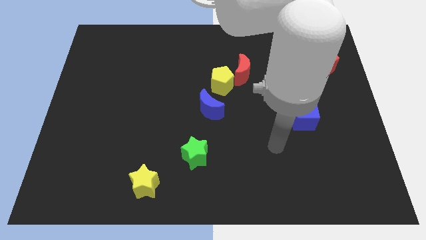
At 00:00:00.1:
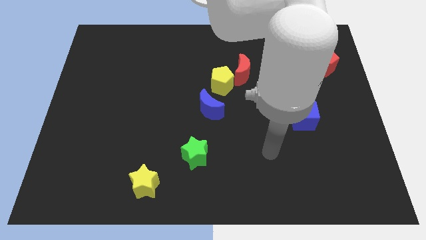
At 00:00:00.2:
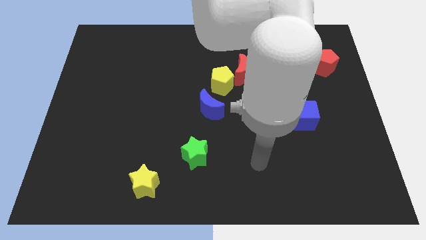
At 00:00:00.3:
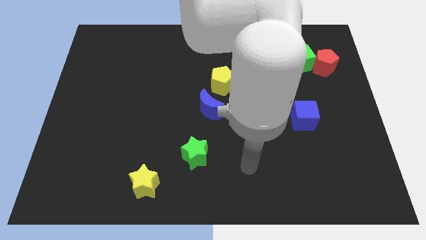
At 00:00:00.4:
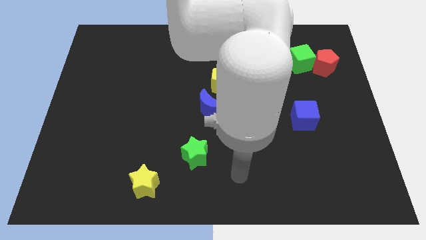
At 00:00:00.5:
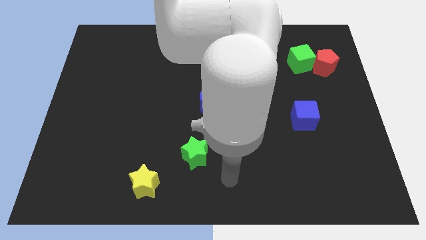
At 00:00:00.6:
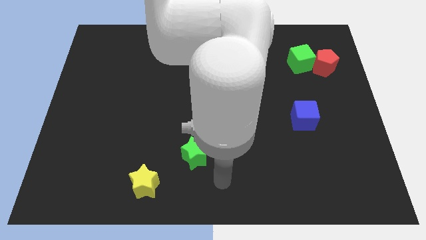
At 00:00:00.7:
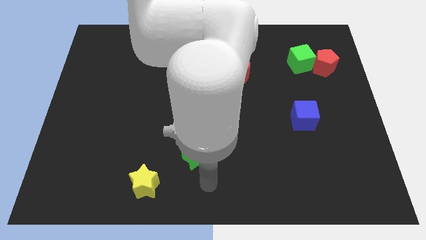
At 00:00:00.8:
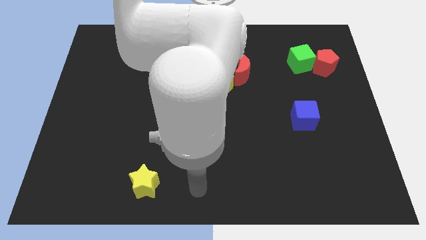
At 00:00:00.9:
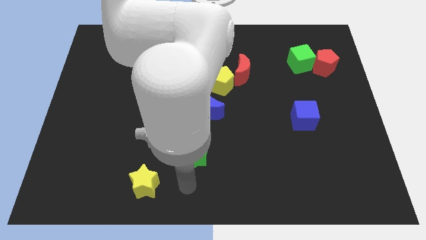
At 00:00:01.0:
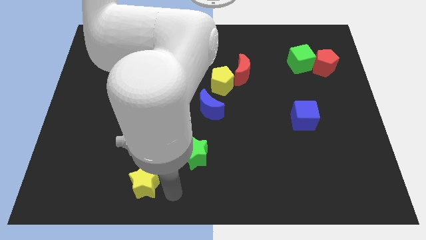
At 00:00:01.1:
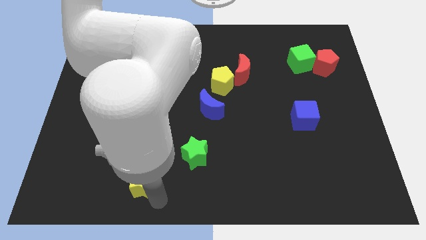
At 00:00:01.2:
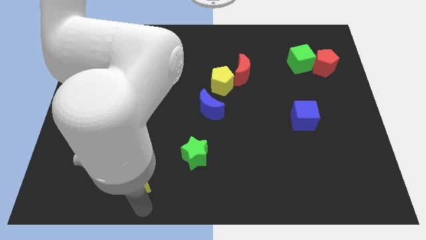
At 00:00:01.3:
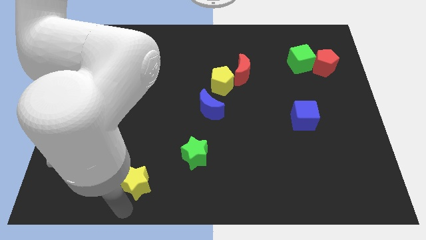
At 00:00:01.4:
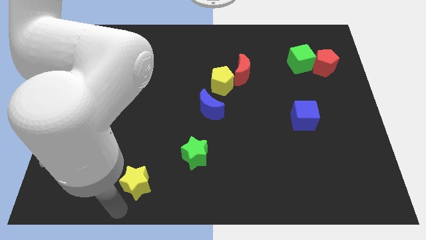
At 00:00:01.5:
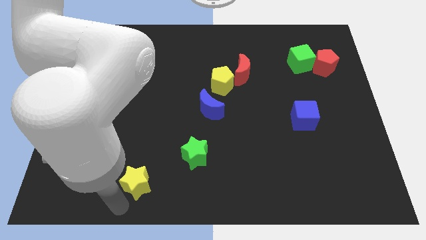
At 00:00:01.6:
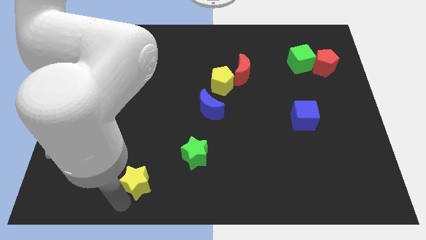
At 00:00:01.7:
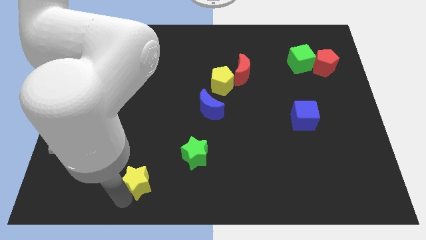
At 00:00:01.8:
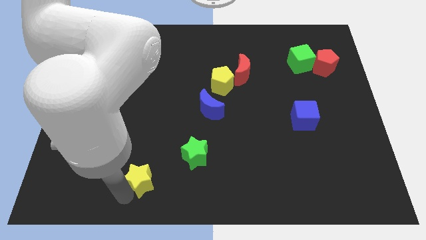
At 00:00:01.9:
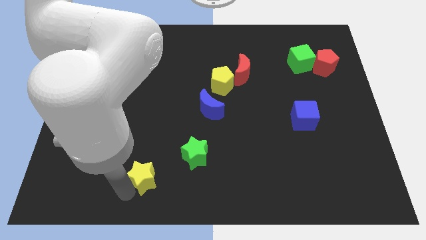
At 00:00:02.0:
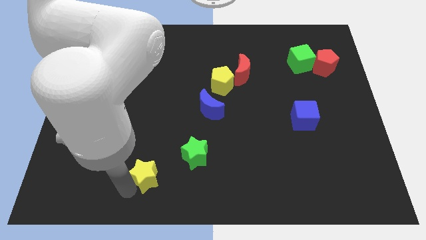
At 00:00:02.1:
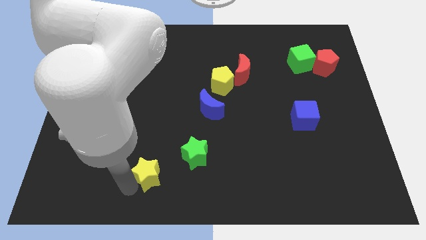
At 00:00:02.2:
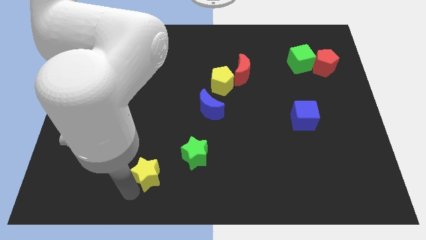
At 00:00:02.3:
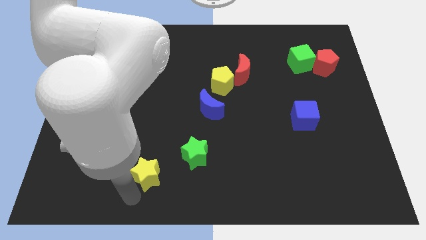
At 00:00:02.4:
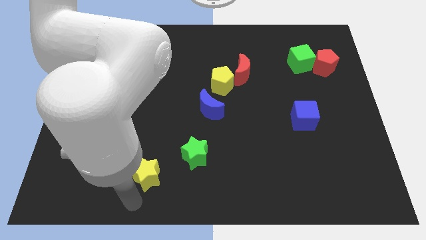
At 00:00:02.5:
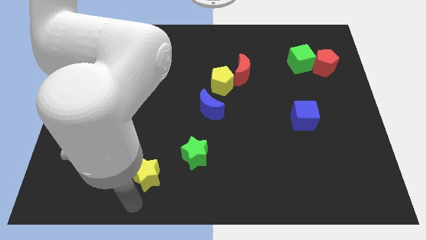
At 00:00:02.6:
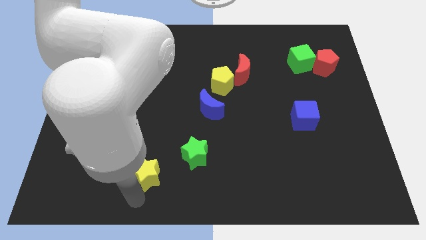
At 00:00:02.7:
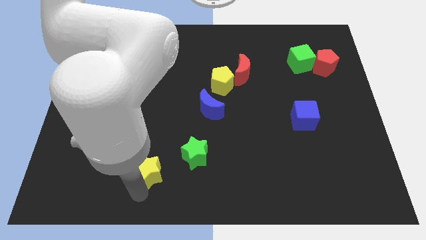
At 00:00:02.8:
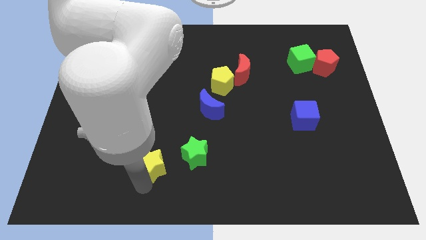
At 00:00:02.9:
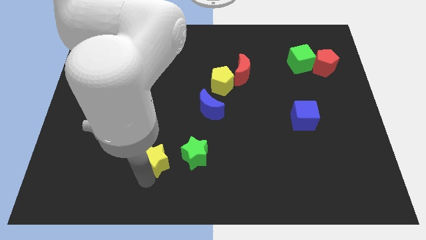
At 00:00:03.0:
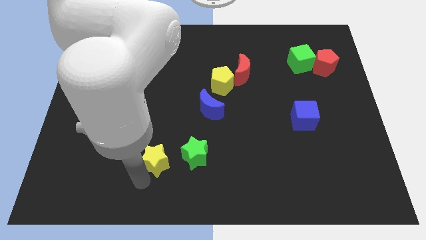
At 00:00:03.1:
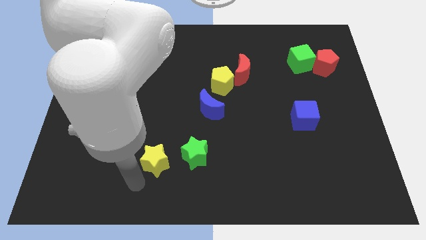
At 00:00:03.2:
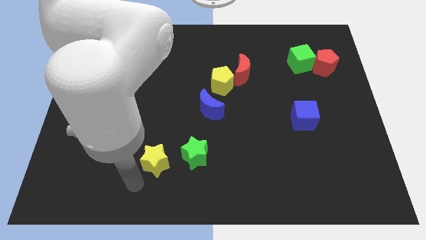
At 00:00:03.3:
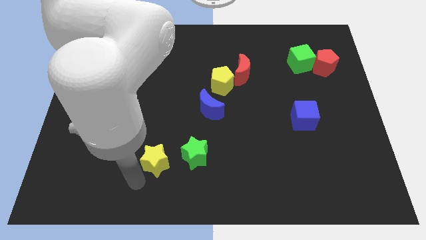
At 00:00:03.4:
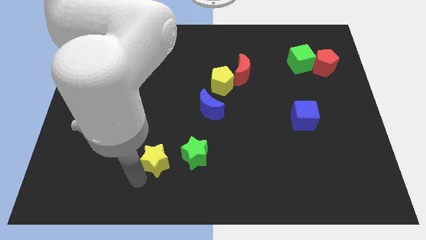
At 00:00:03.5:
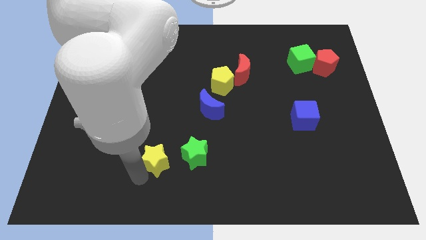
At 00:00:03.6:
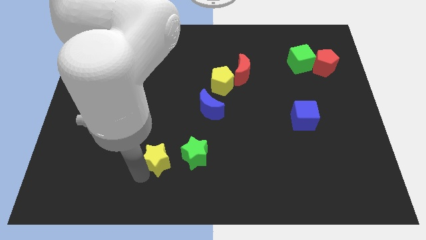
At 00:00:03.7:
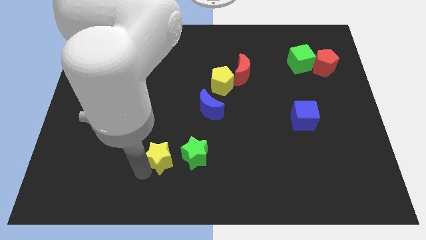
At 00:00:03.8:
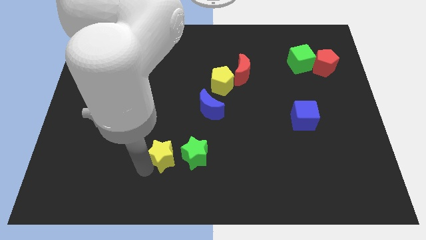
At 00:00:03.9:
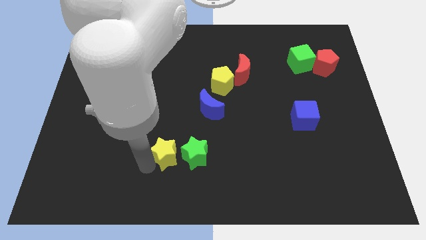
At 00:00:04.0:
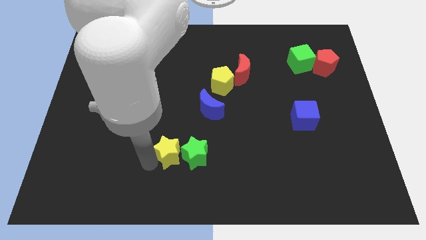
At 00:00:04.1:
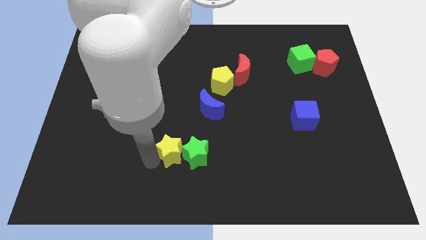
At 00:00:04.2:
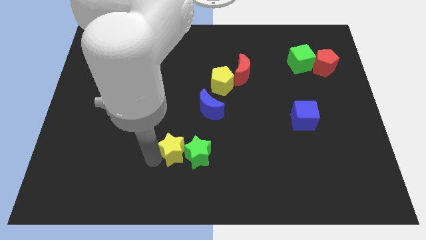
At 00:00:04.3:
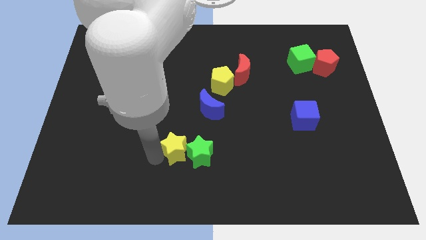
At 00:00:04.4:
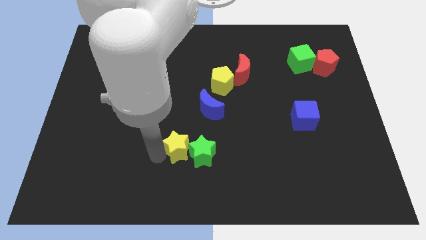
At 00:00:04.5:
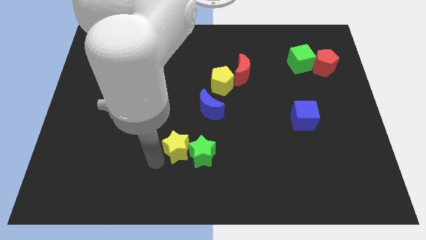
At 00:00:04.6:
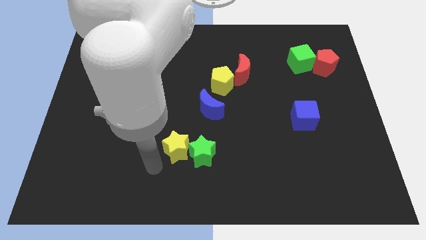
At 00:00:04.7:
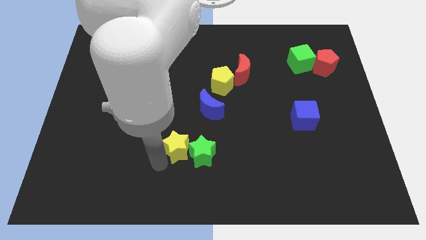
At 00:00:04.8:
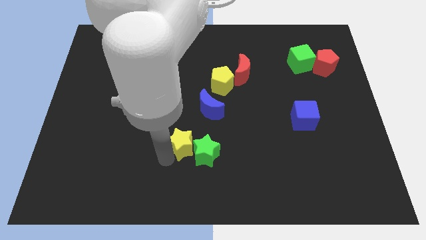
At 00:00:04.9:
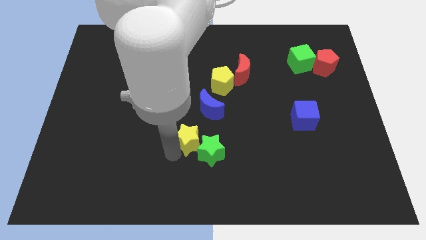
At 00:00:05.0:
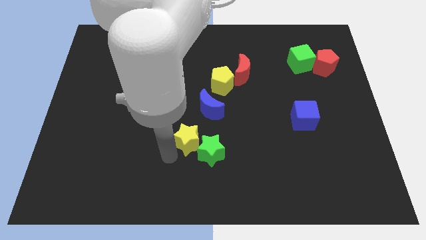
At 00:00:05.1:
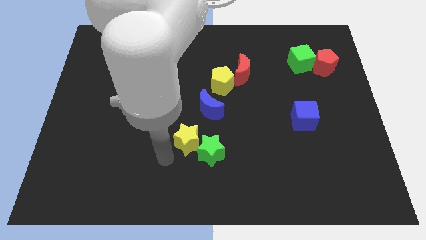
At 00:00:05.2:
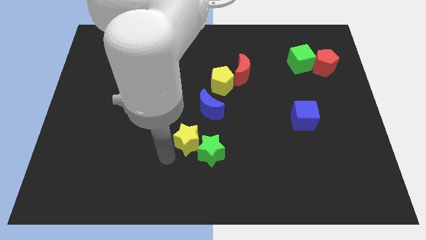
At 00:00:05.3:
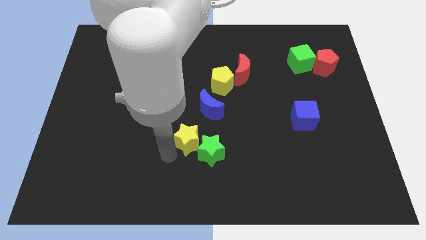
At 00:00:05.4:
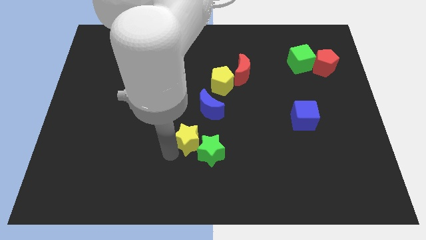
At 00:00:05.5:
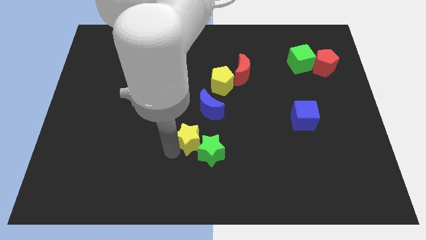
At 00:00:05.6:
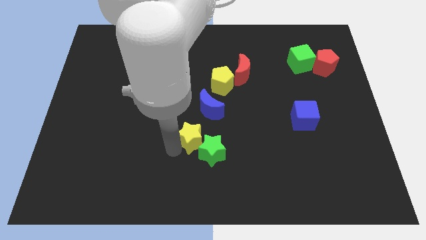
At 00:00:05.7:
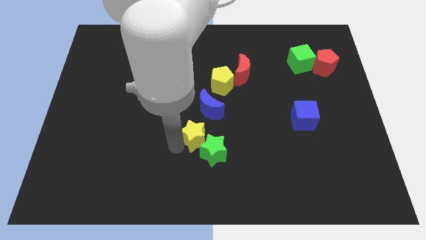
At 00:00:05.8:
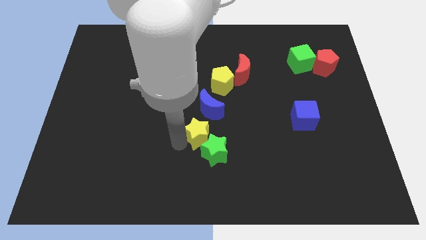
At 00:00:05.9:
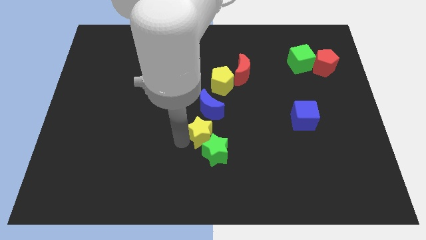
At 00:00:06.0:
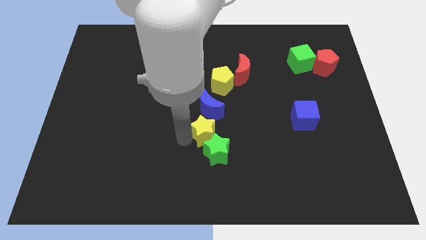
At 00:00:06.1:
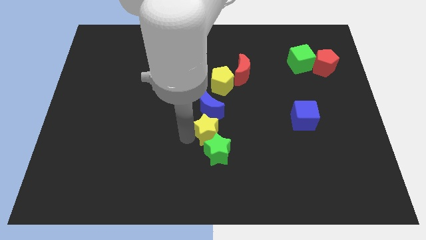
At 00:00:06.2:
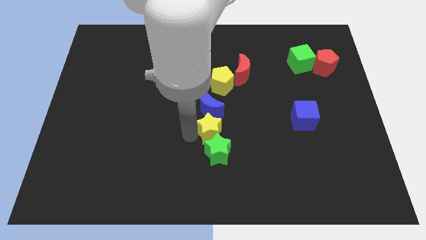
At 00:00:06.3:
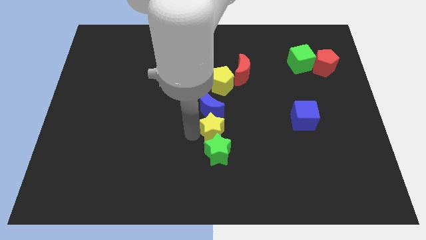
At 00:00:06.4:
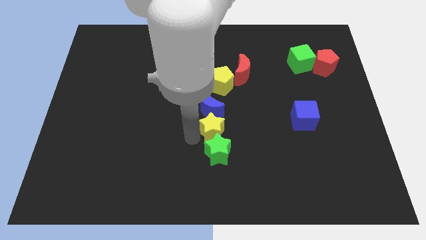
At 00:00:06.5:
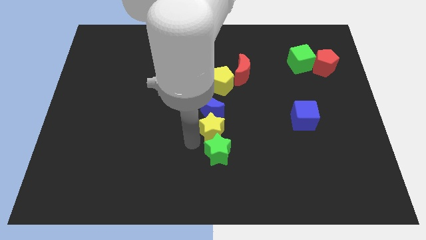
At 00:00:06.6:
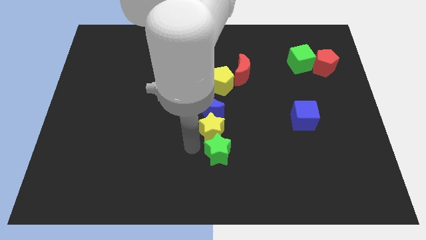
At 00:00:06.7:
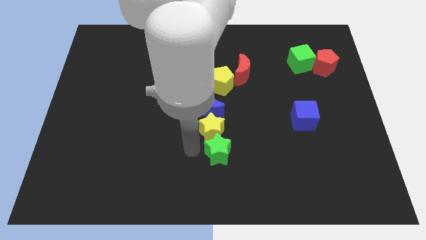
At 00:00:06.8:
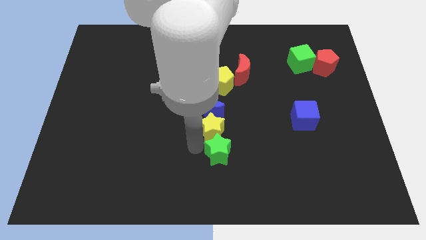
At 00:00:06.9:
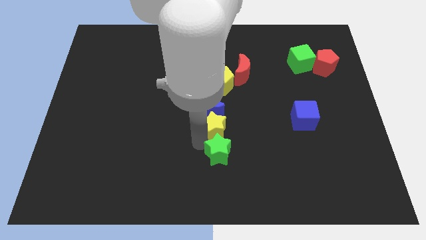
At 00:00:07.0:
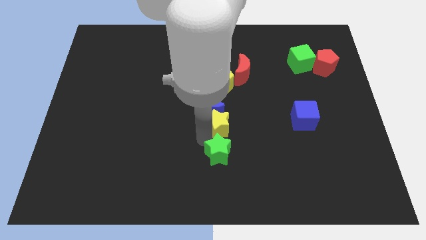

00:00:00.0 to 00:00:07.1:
push the yellow star up and to the right diagonally

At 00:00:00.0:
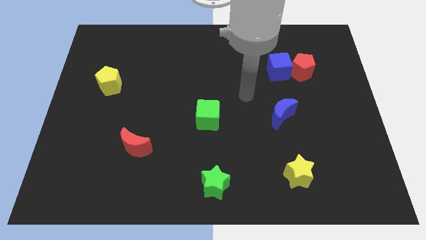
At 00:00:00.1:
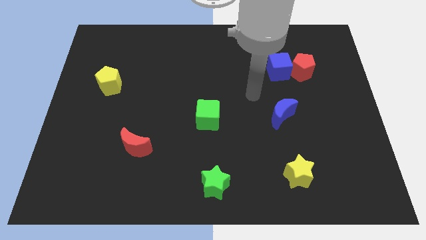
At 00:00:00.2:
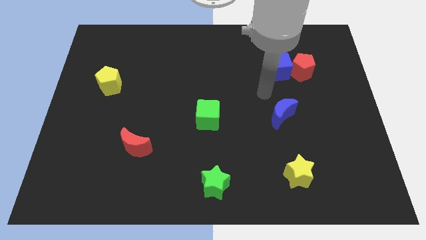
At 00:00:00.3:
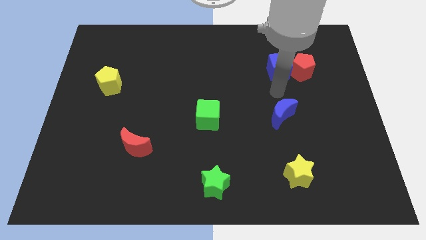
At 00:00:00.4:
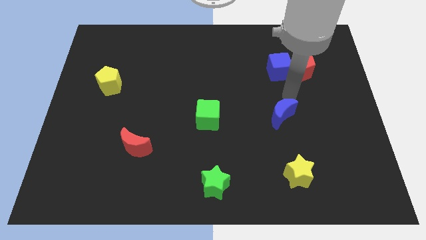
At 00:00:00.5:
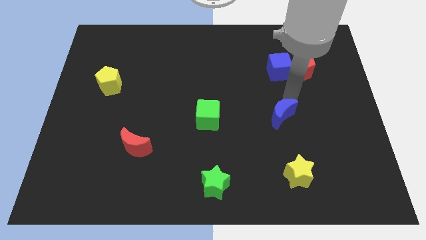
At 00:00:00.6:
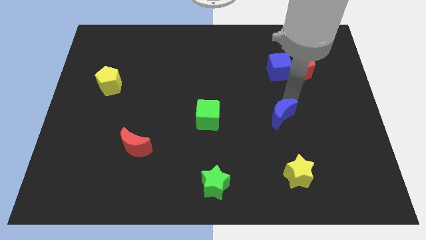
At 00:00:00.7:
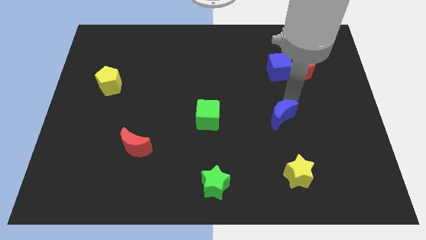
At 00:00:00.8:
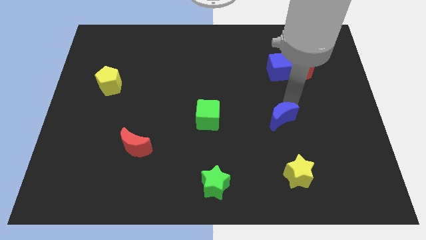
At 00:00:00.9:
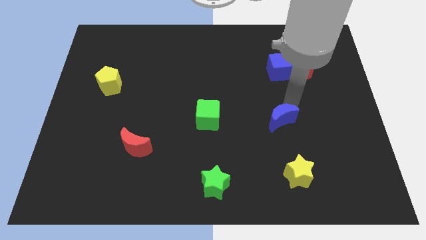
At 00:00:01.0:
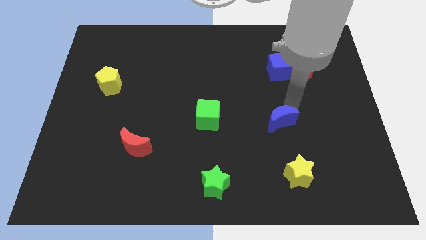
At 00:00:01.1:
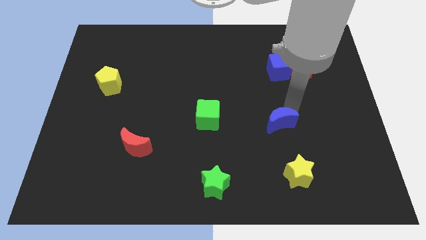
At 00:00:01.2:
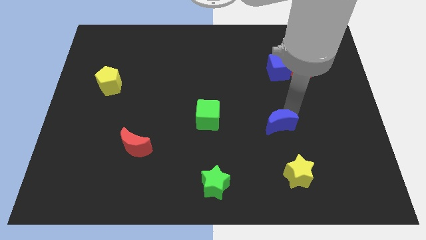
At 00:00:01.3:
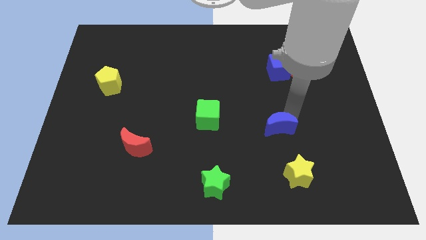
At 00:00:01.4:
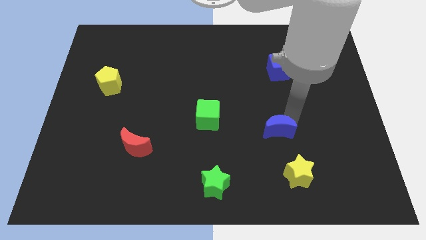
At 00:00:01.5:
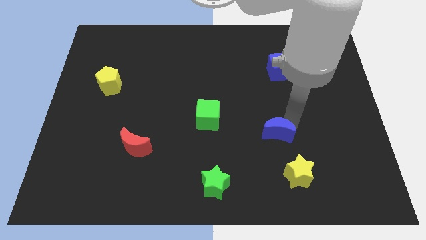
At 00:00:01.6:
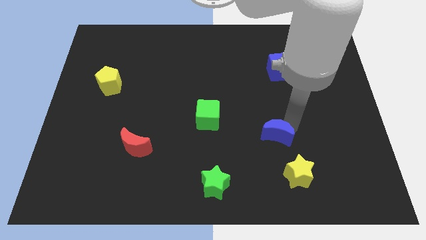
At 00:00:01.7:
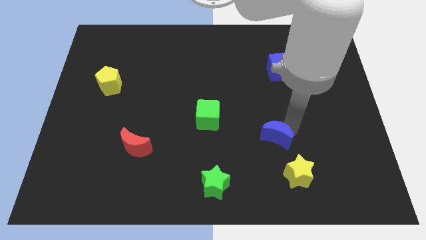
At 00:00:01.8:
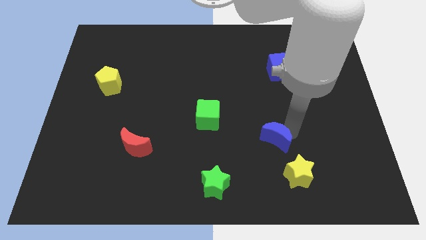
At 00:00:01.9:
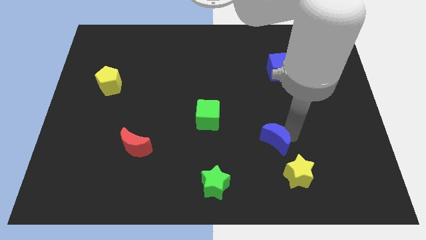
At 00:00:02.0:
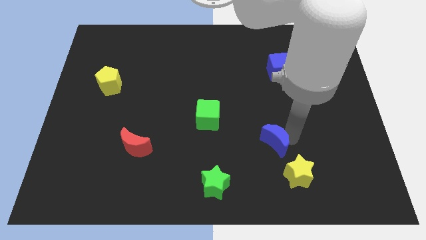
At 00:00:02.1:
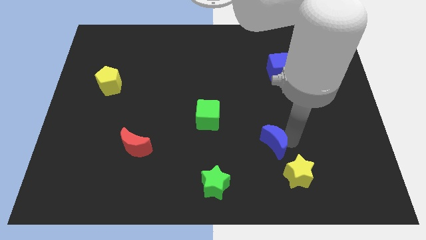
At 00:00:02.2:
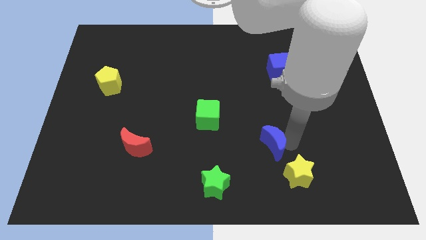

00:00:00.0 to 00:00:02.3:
slightly slide the blue moon downwards and then to the left
